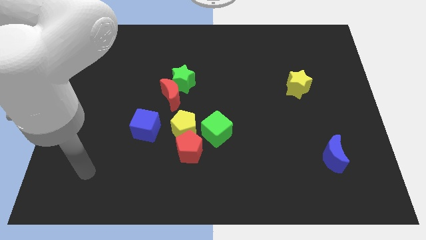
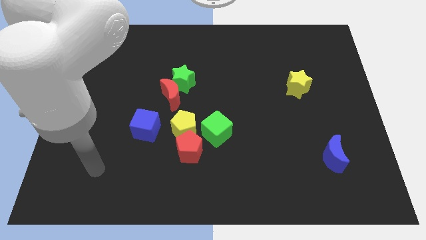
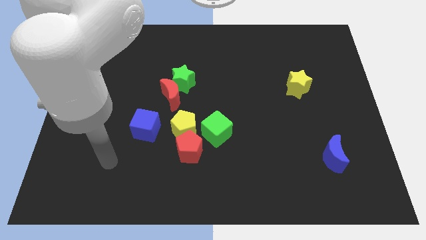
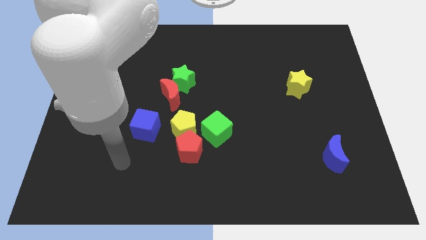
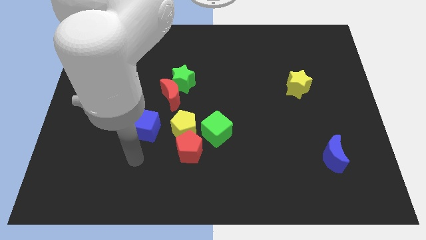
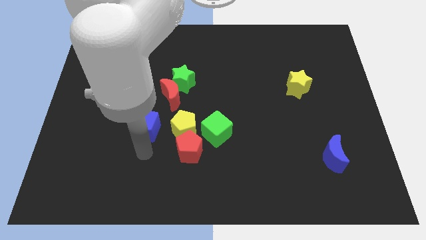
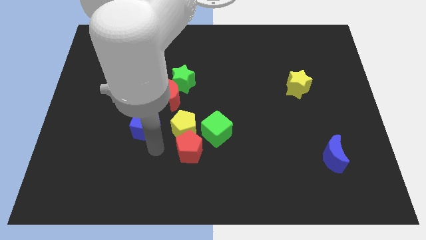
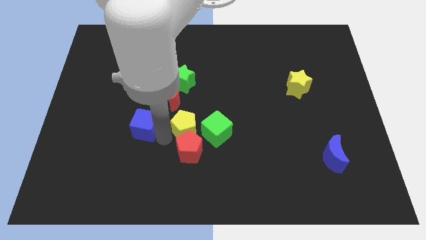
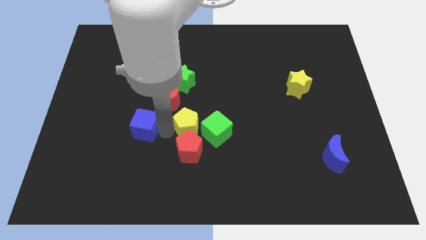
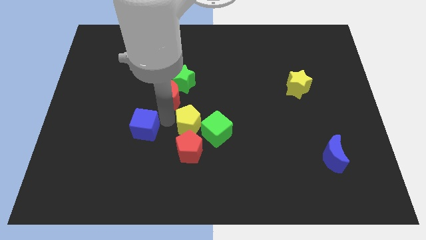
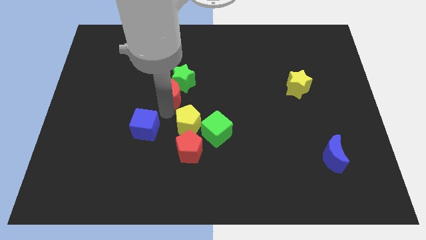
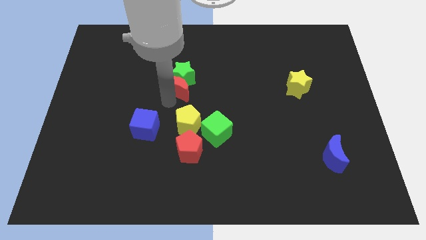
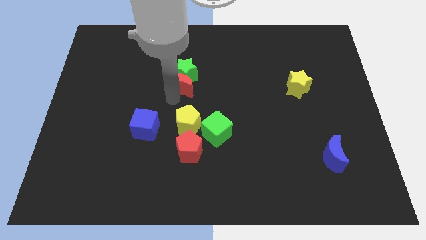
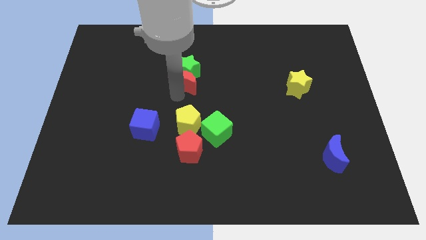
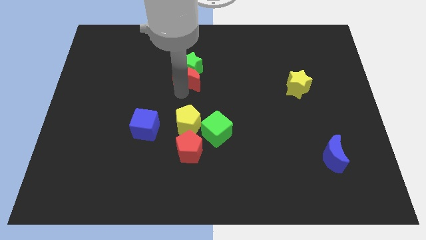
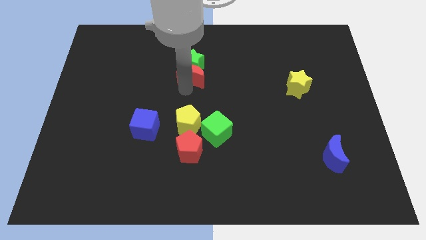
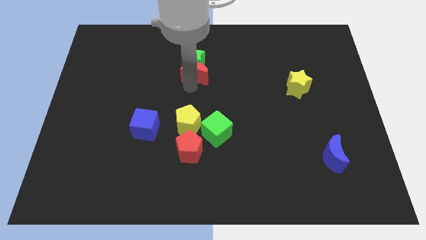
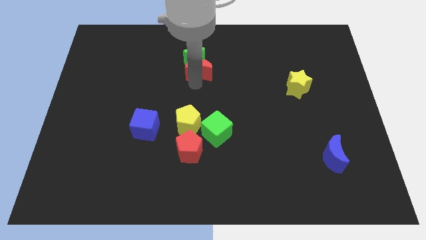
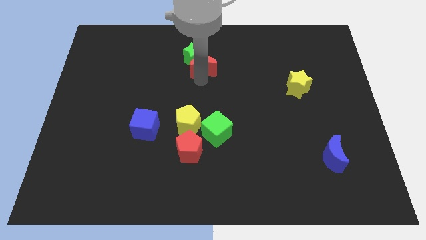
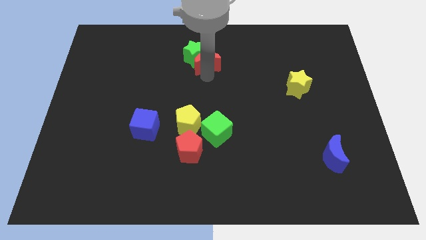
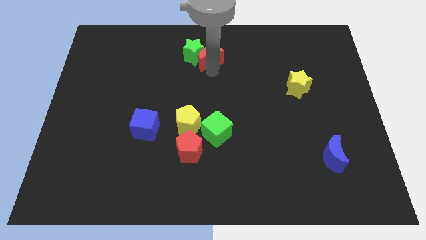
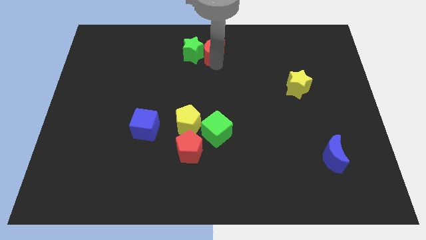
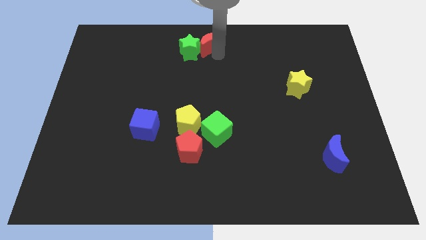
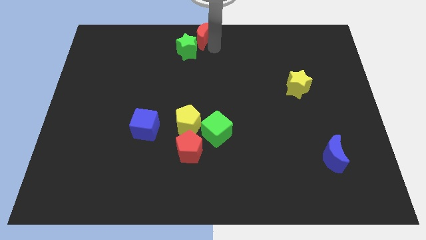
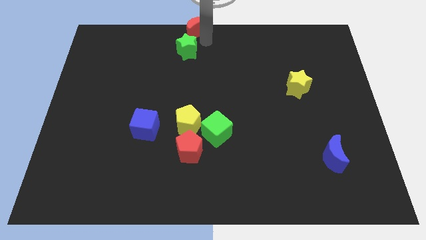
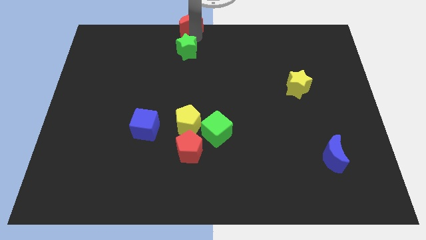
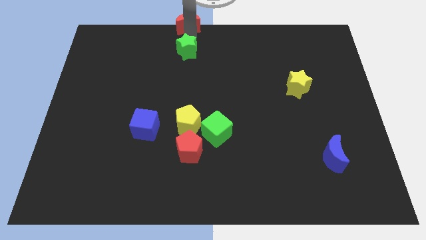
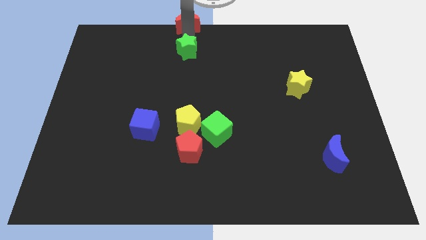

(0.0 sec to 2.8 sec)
pull the green star apart from the red moon

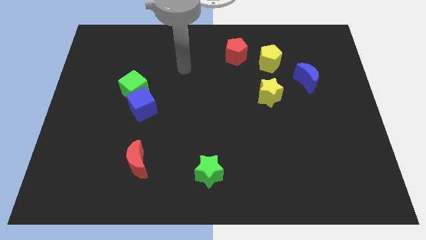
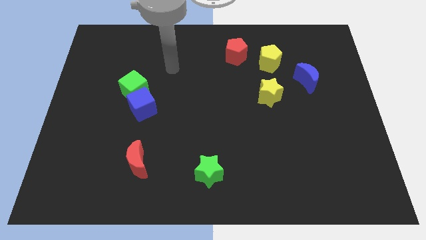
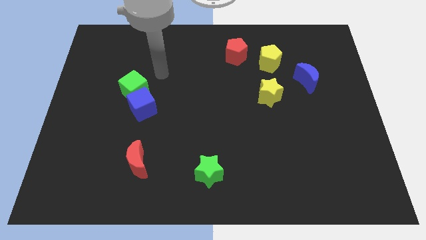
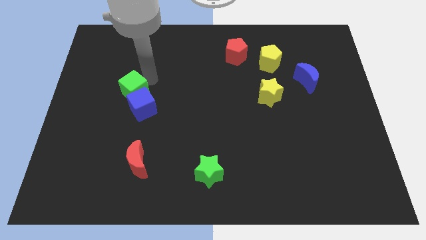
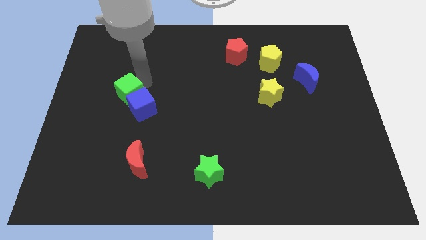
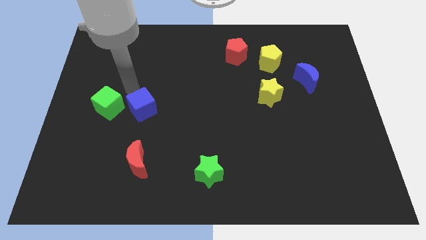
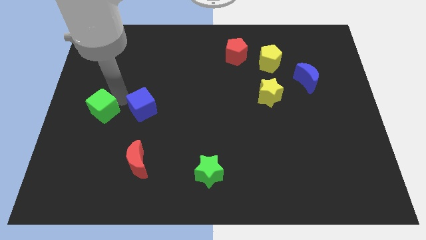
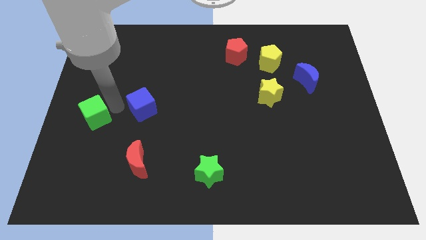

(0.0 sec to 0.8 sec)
separate the blue cube from the green cube

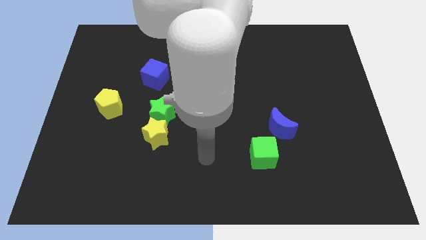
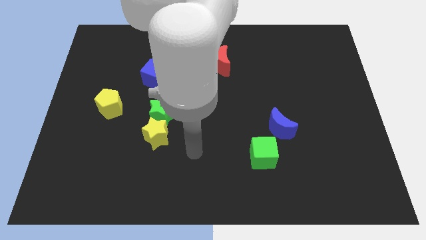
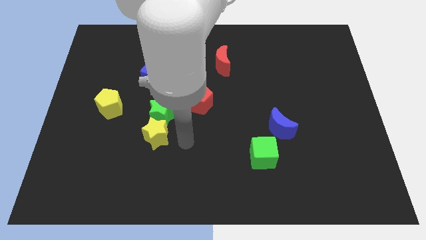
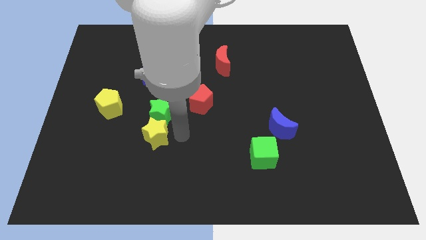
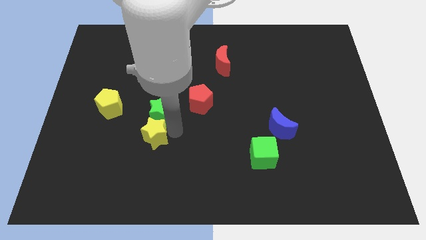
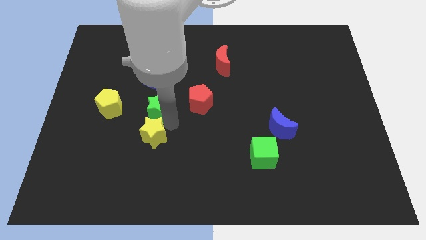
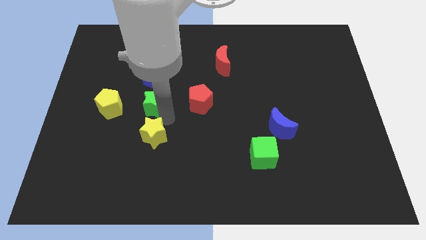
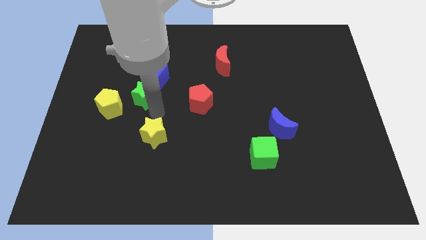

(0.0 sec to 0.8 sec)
separate the yellow star from the green star

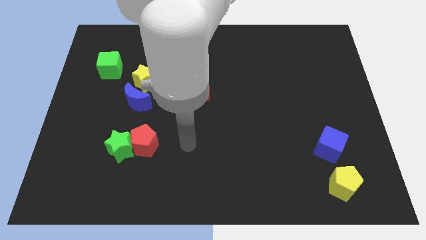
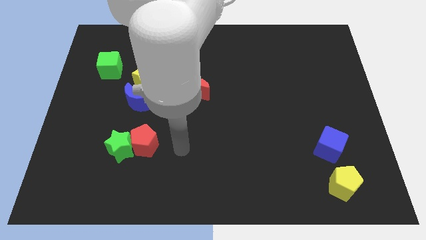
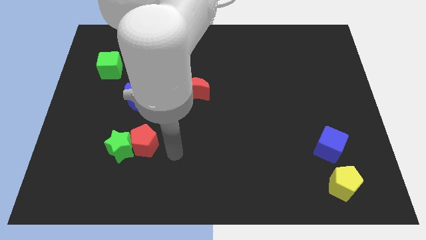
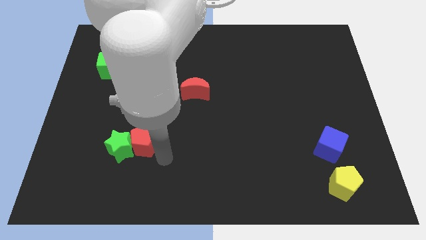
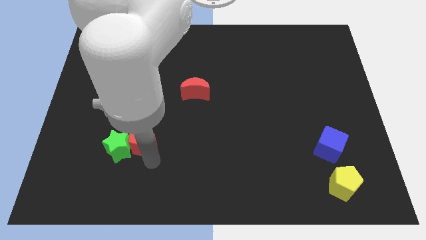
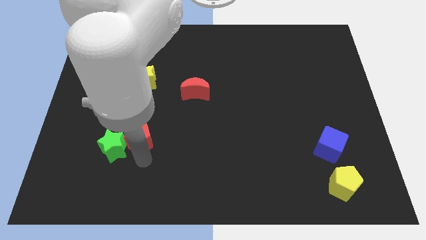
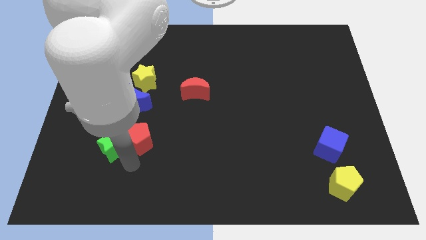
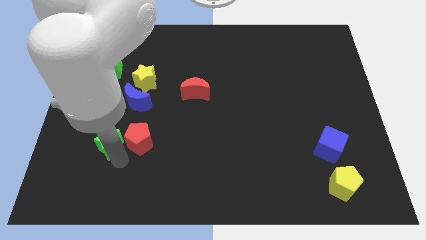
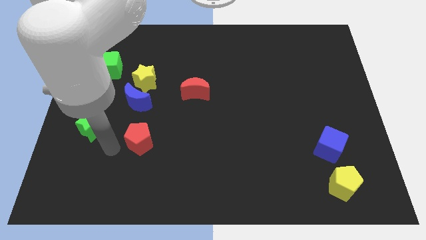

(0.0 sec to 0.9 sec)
move the red pentagon away from the green star

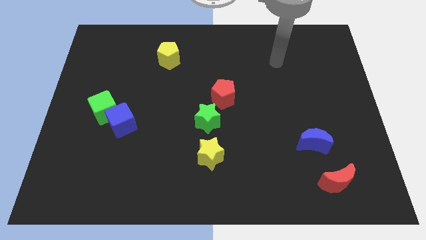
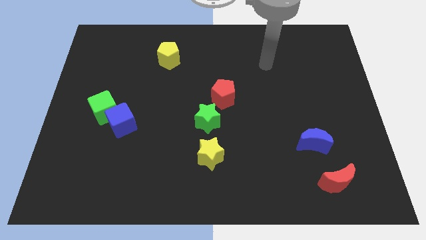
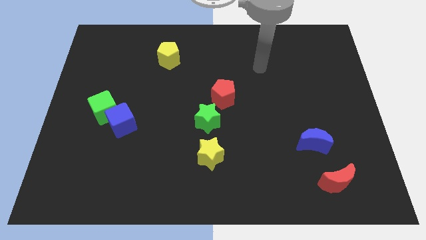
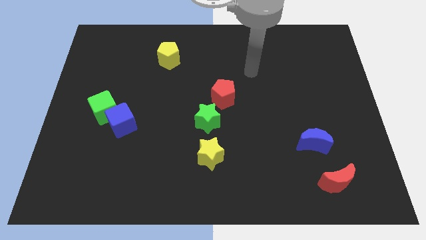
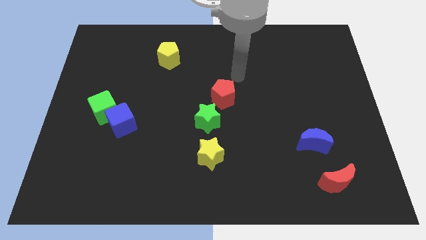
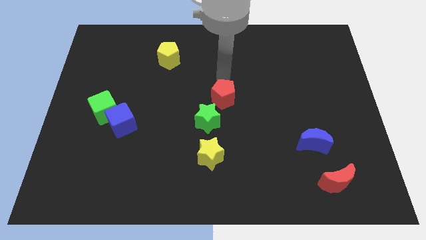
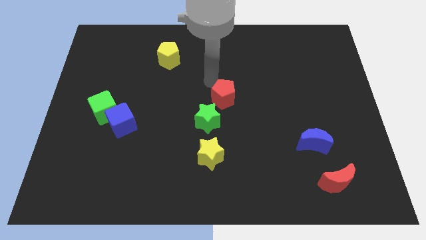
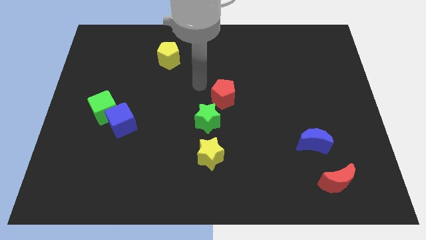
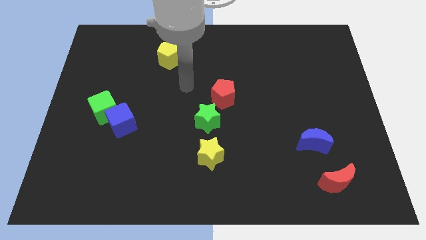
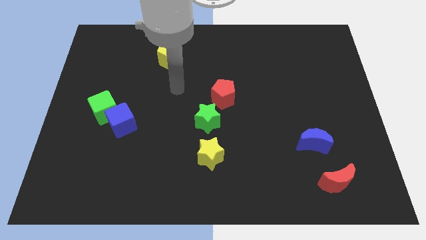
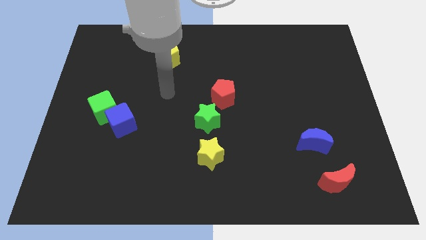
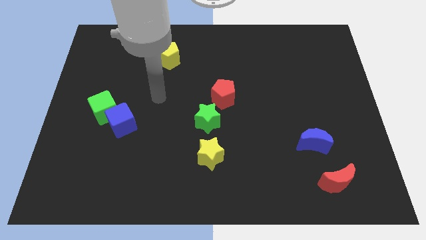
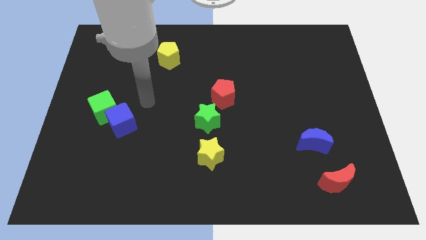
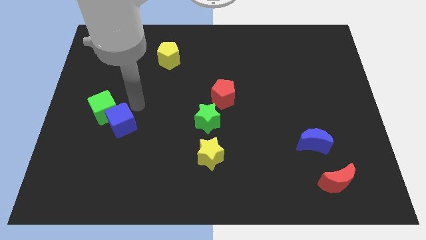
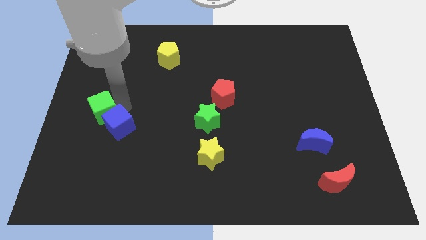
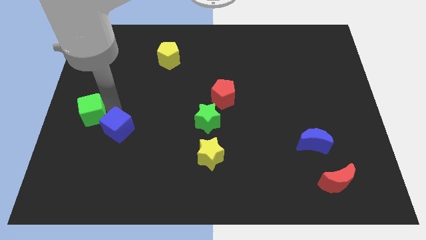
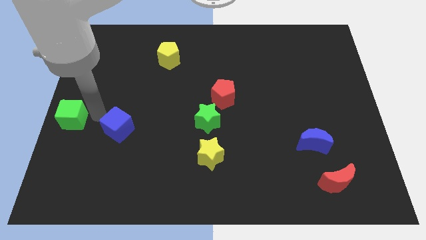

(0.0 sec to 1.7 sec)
pull the blue cube apart from the green cube

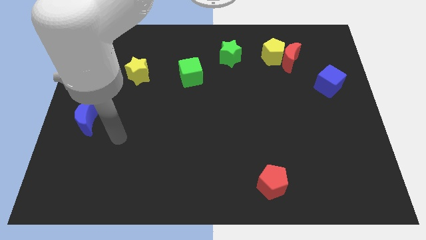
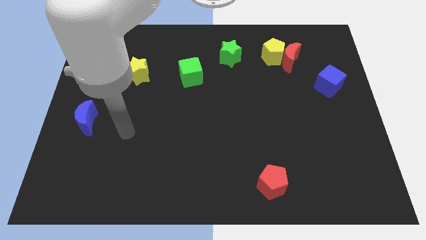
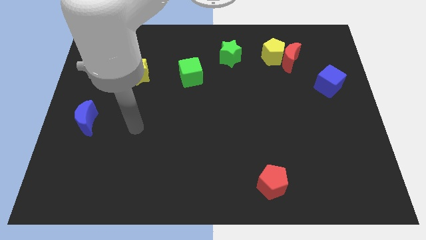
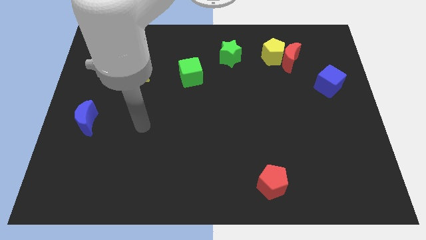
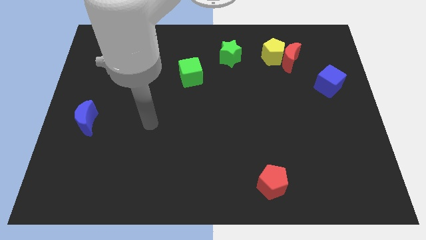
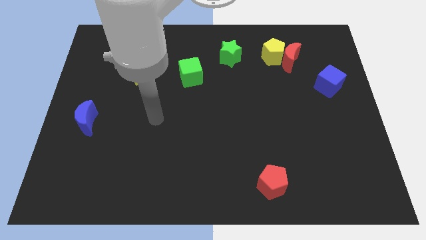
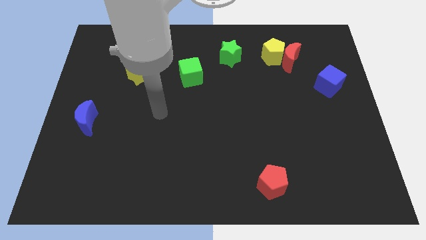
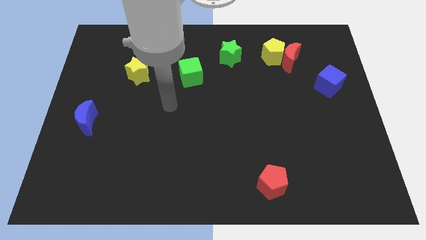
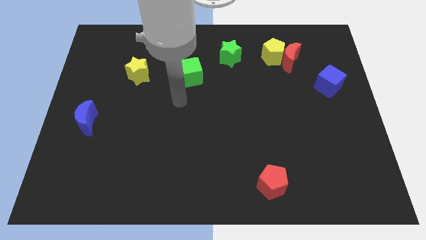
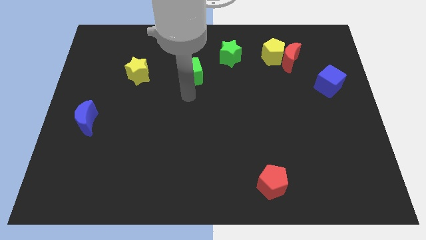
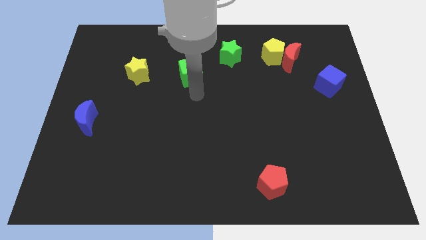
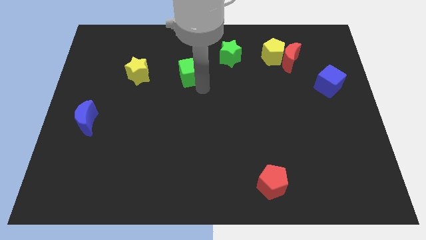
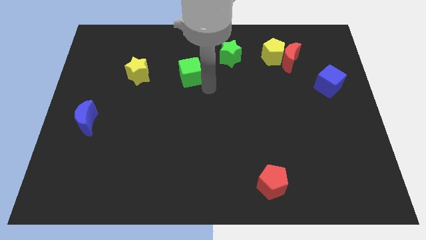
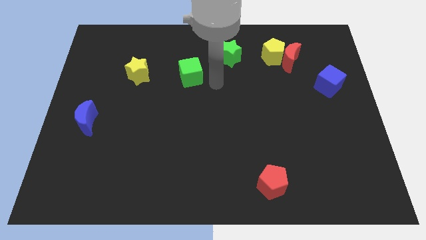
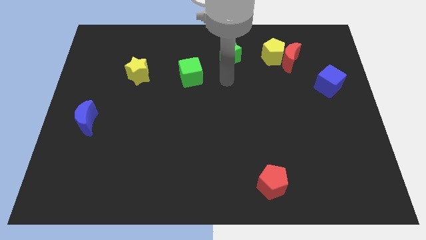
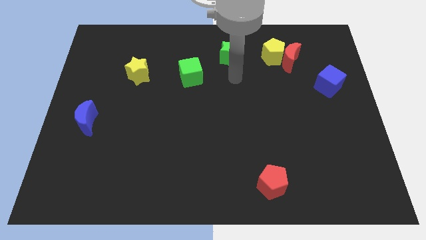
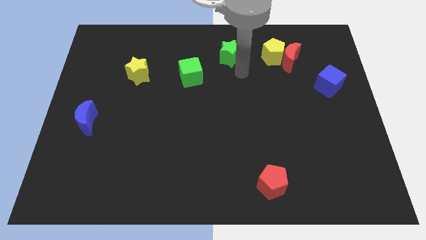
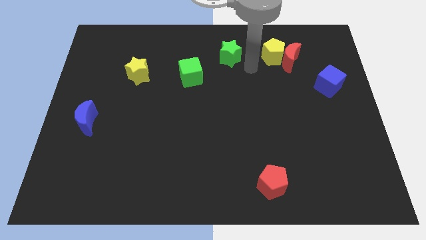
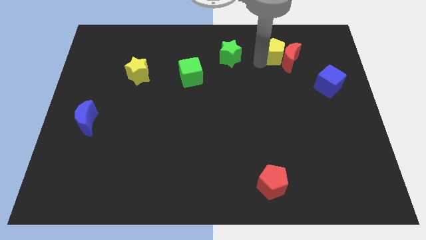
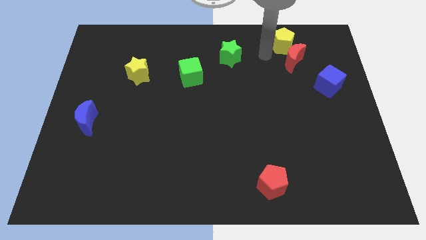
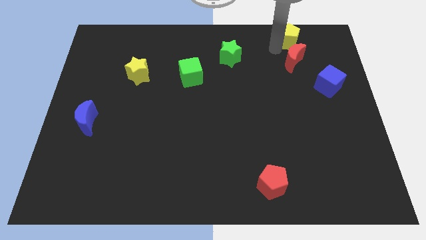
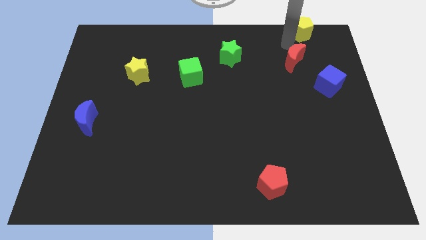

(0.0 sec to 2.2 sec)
pull the red moon apart from the yellow pentagon

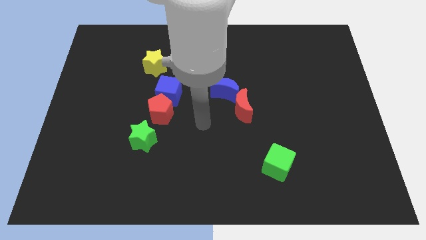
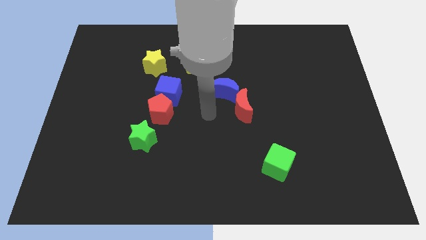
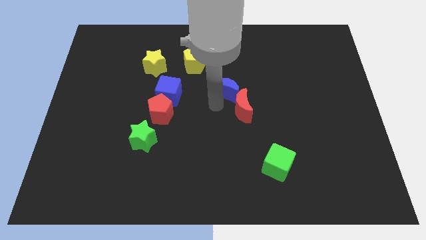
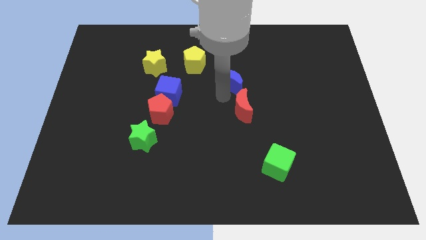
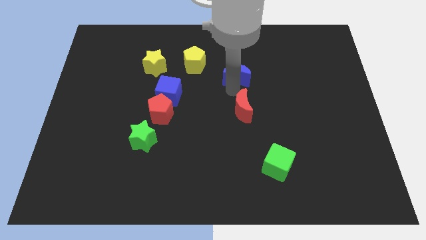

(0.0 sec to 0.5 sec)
move the red moon away from the blue moon
